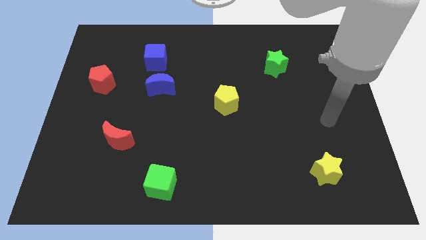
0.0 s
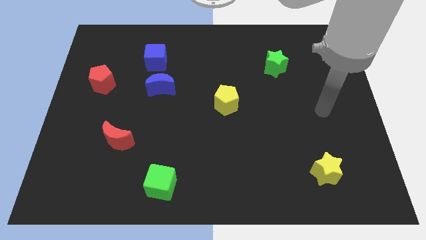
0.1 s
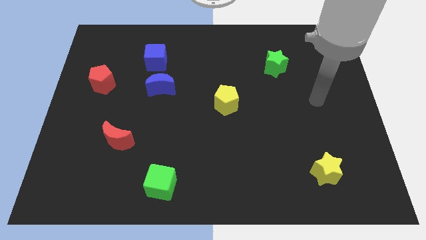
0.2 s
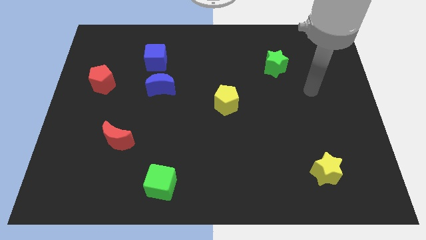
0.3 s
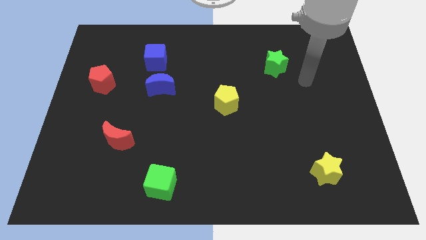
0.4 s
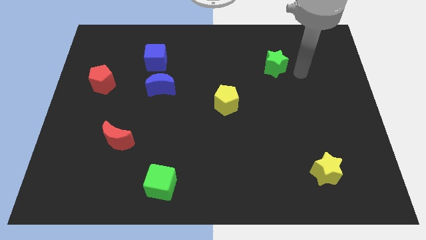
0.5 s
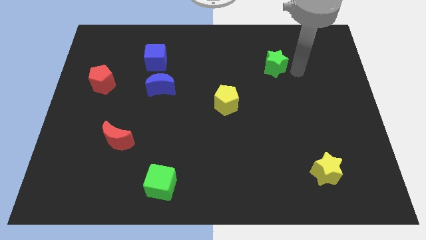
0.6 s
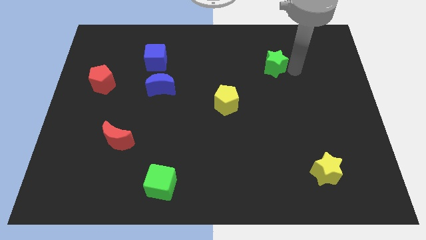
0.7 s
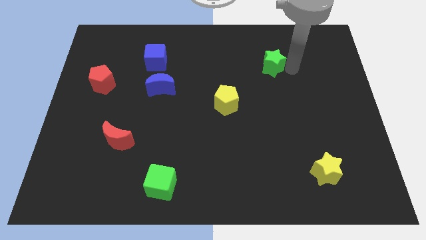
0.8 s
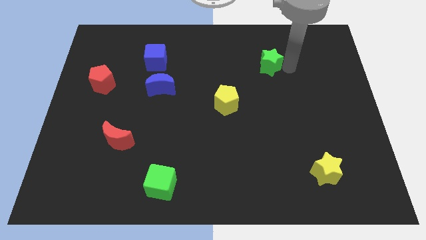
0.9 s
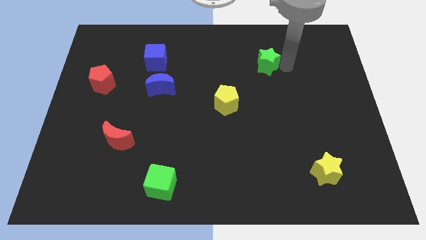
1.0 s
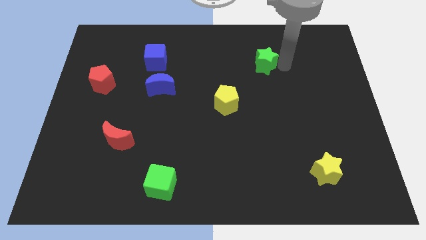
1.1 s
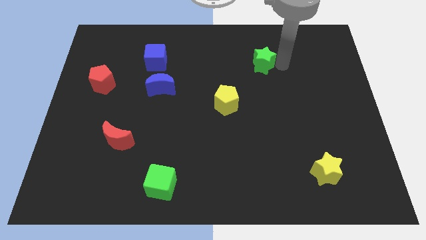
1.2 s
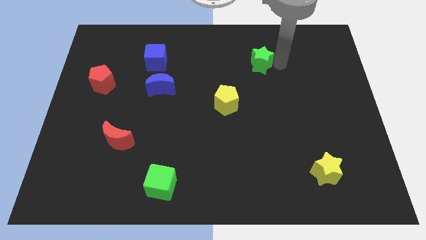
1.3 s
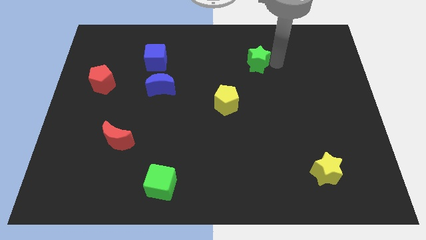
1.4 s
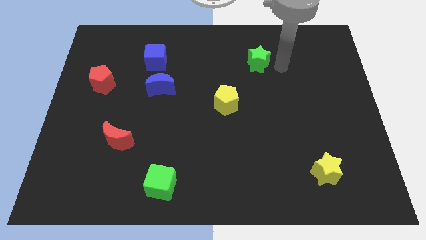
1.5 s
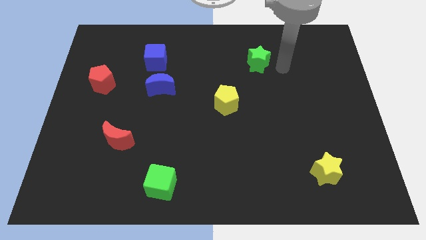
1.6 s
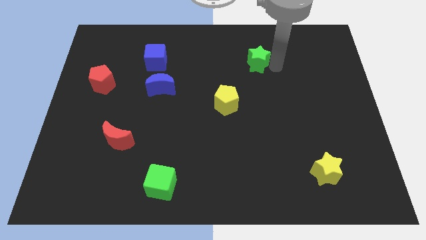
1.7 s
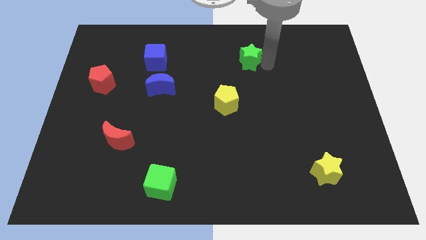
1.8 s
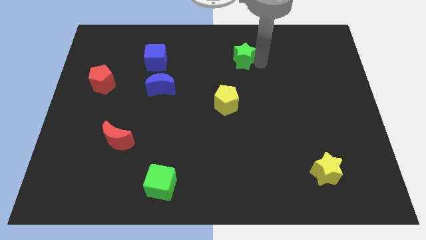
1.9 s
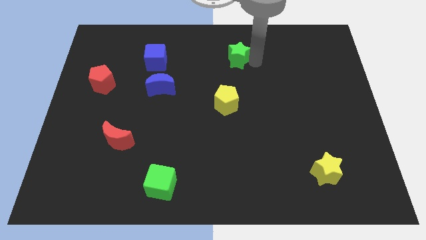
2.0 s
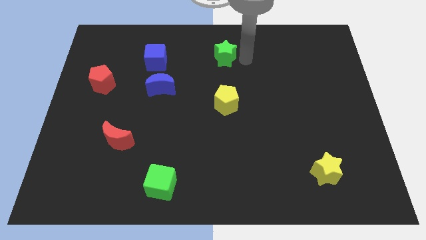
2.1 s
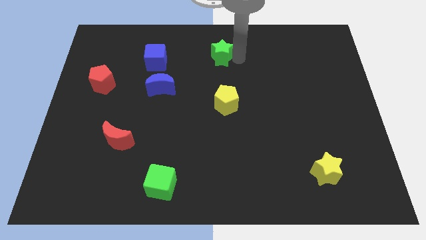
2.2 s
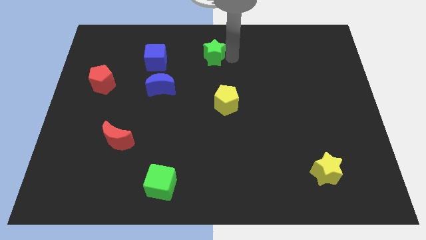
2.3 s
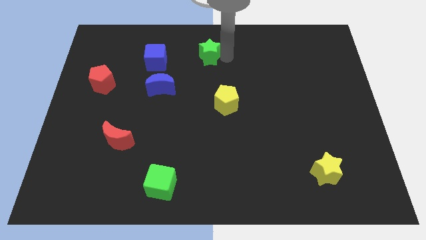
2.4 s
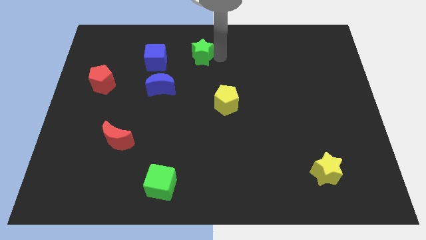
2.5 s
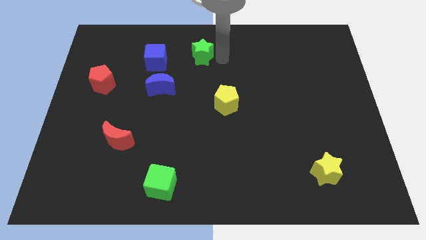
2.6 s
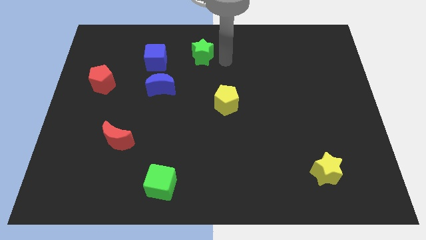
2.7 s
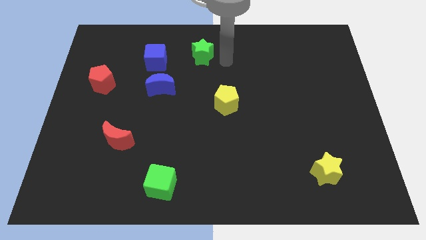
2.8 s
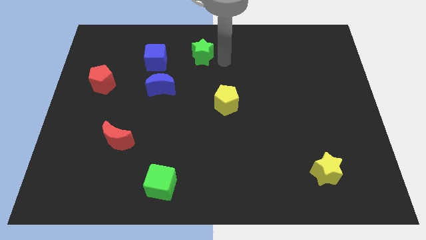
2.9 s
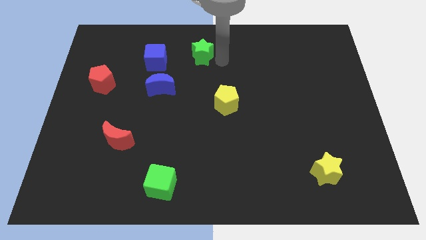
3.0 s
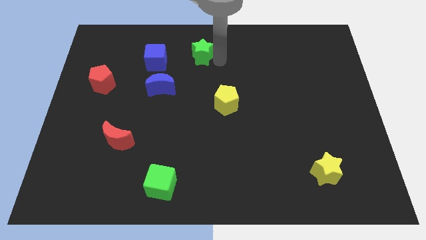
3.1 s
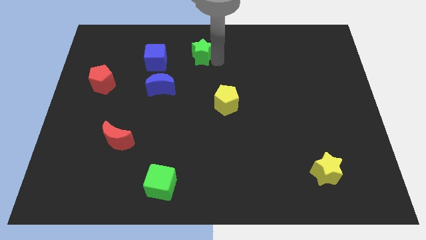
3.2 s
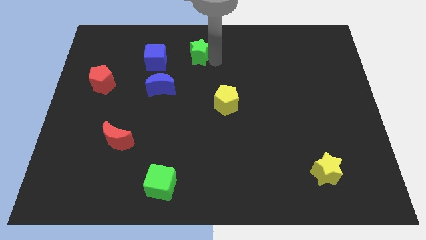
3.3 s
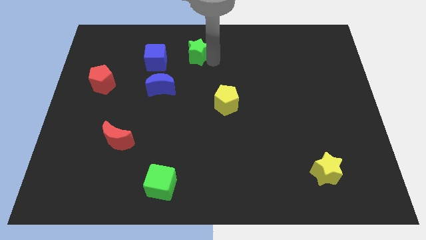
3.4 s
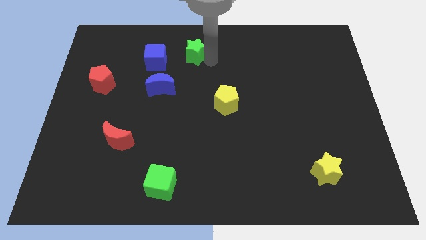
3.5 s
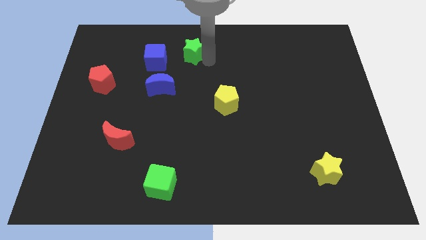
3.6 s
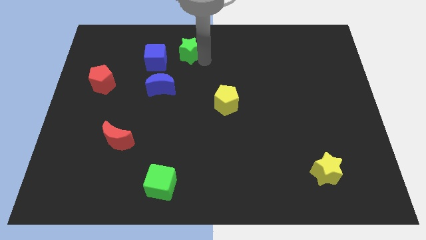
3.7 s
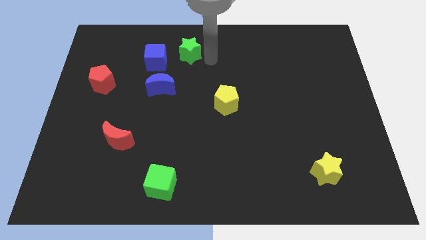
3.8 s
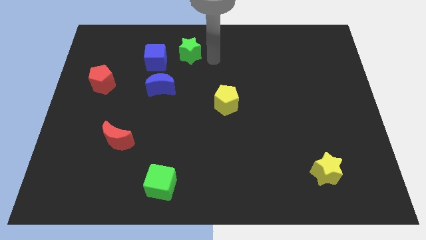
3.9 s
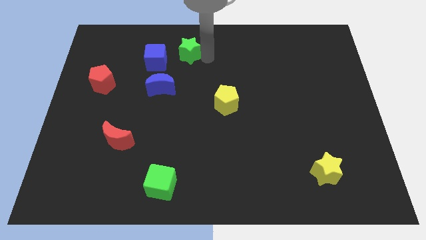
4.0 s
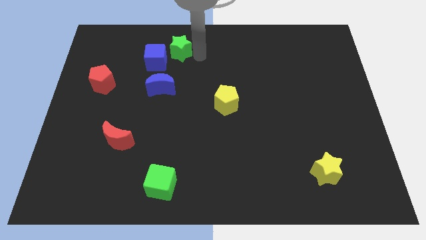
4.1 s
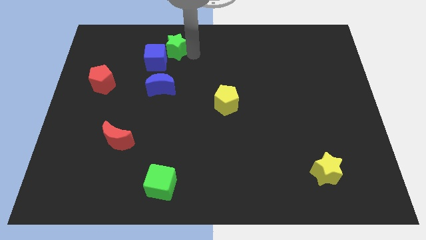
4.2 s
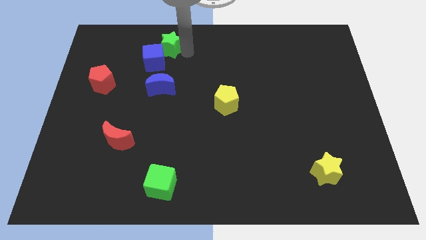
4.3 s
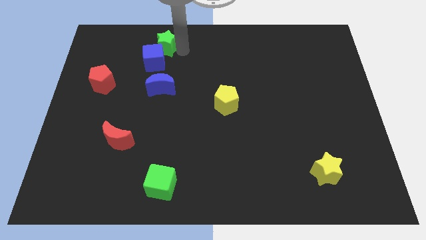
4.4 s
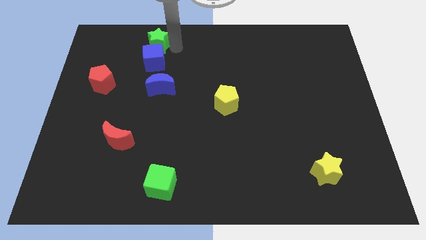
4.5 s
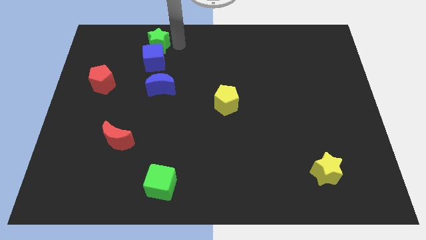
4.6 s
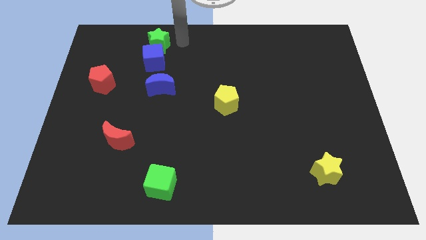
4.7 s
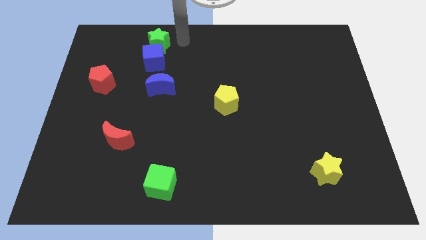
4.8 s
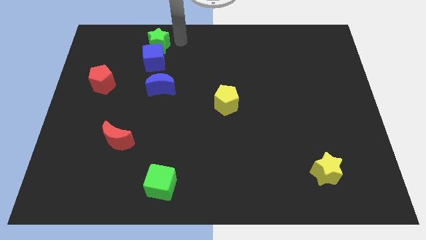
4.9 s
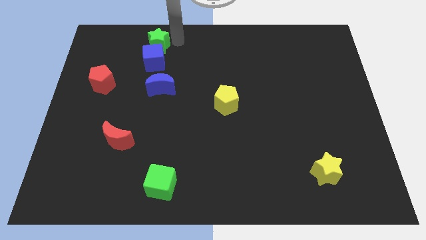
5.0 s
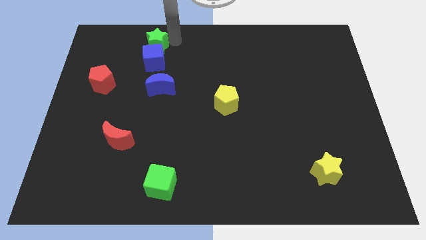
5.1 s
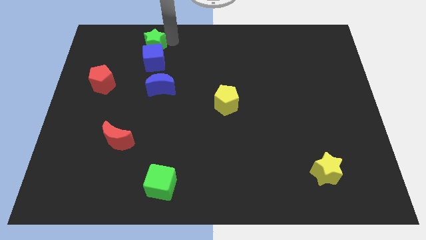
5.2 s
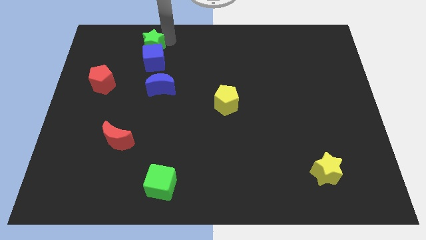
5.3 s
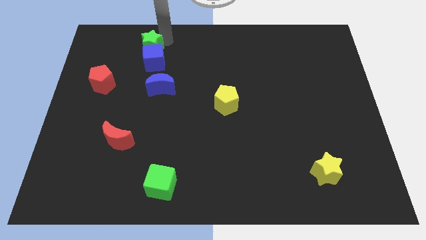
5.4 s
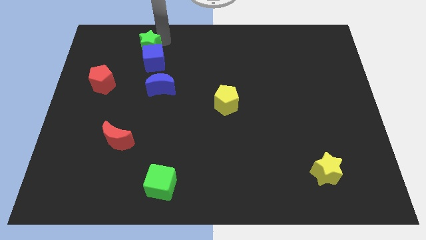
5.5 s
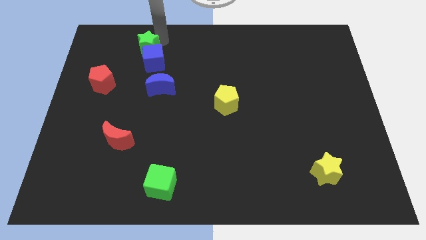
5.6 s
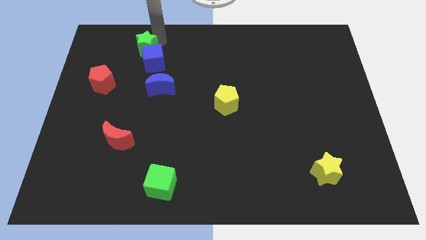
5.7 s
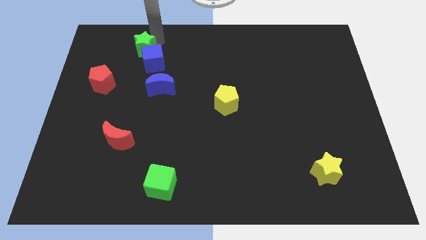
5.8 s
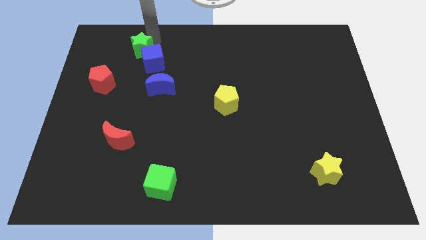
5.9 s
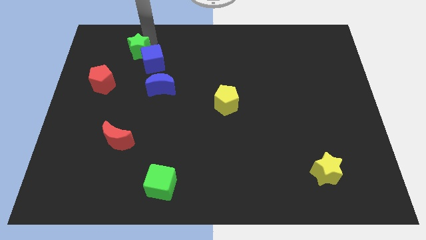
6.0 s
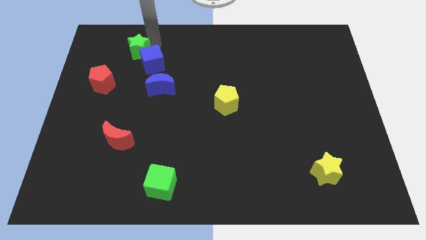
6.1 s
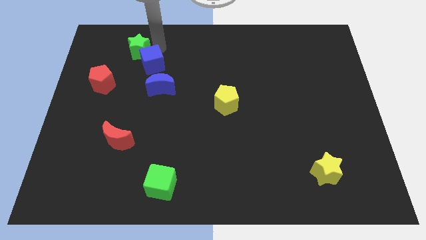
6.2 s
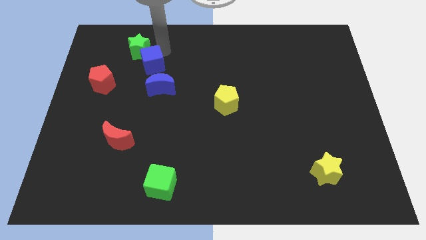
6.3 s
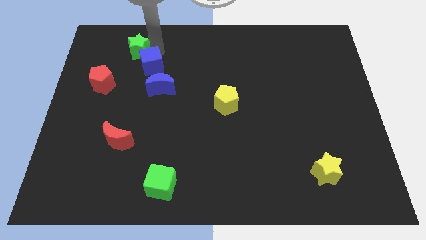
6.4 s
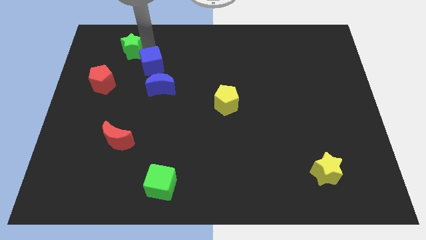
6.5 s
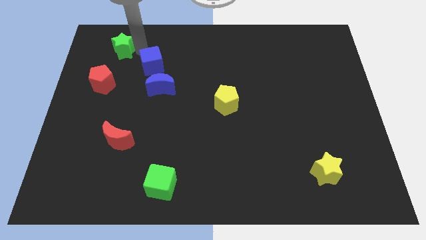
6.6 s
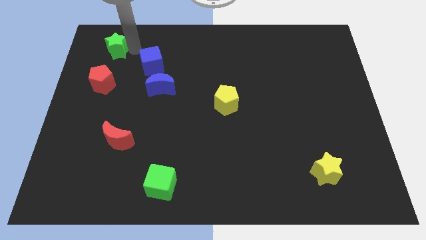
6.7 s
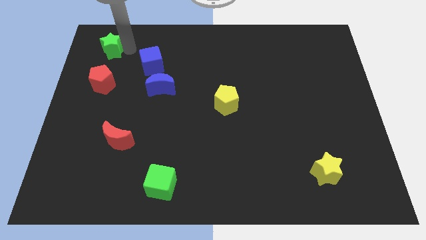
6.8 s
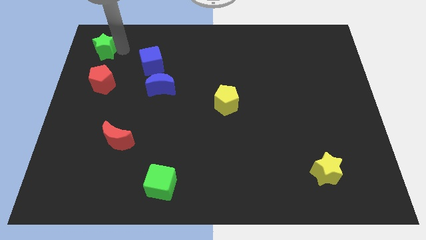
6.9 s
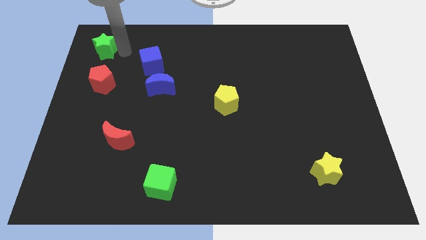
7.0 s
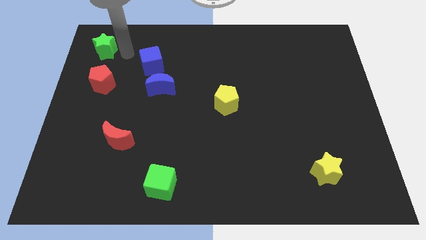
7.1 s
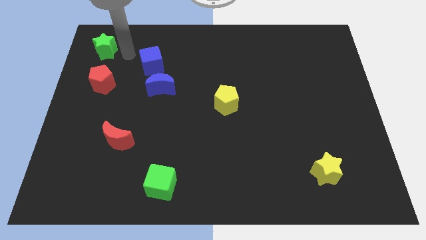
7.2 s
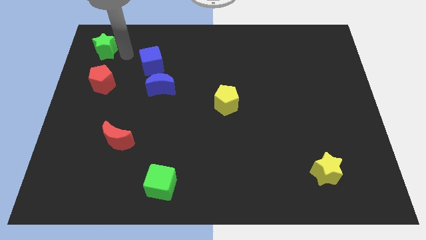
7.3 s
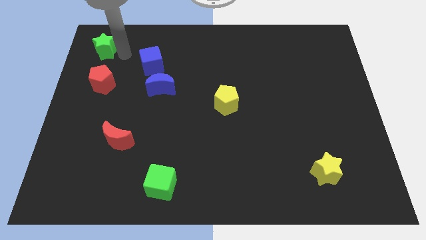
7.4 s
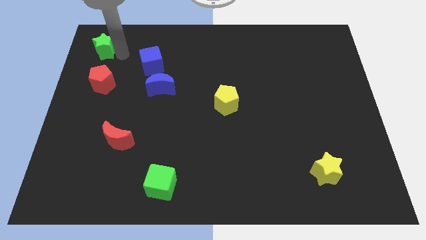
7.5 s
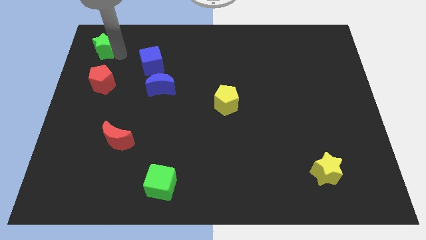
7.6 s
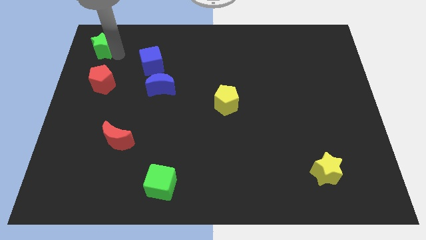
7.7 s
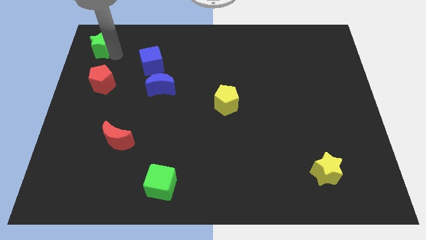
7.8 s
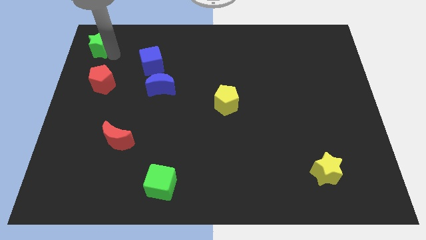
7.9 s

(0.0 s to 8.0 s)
push the green star to the top left corner
